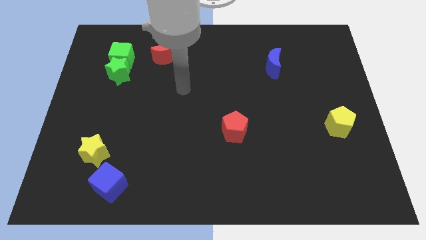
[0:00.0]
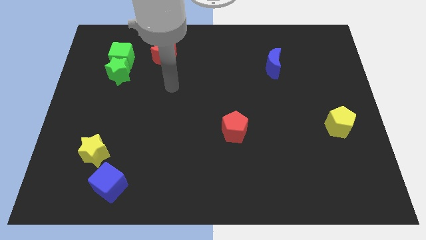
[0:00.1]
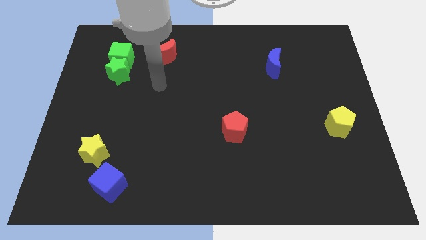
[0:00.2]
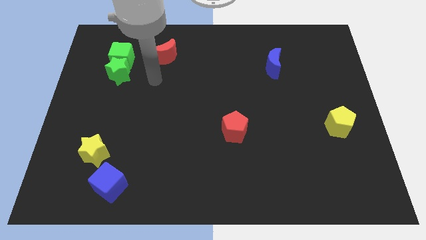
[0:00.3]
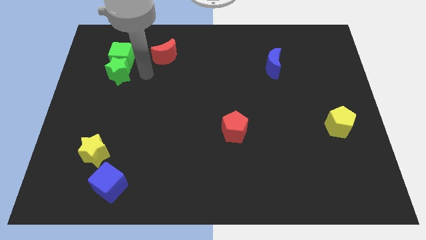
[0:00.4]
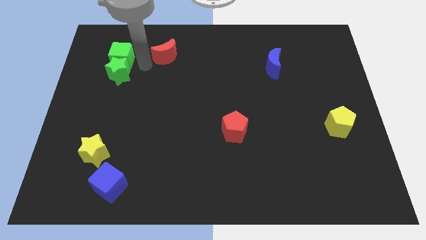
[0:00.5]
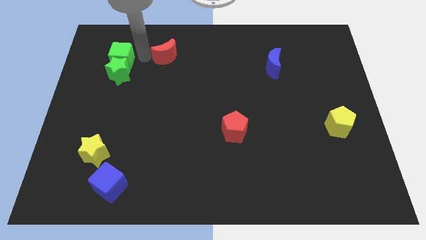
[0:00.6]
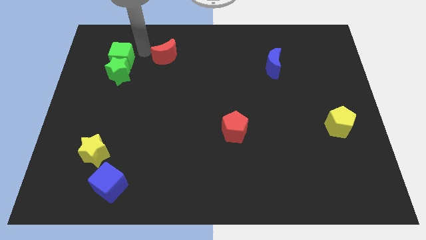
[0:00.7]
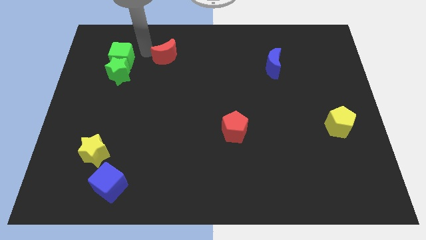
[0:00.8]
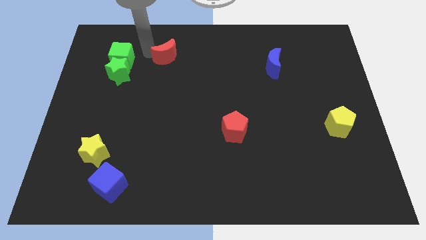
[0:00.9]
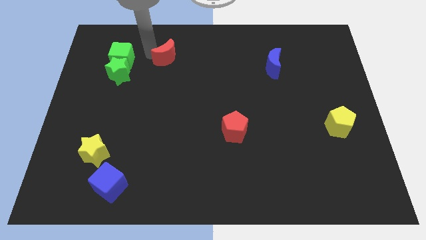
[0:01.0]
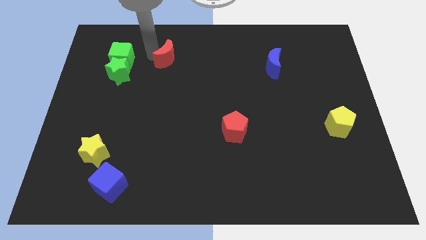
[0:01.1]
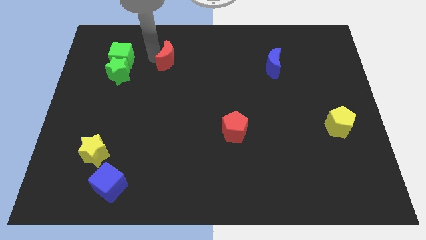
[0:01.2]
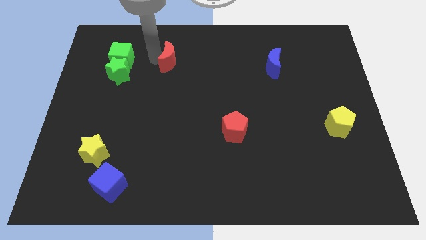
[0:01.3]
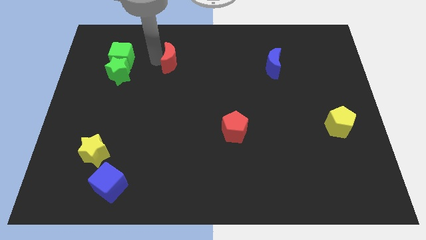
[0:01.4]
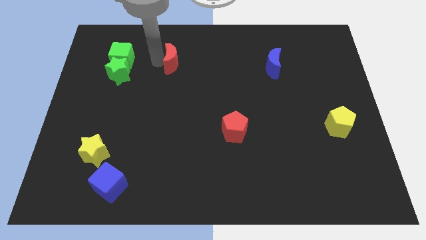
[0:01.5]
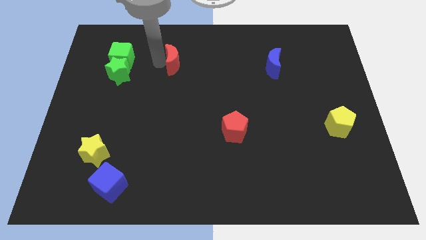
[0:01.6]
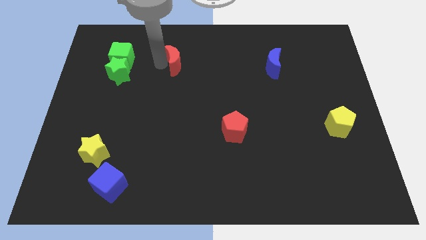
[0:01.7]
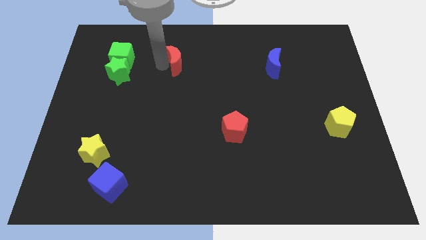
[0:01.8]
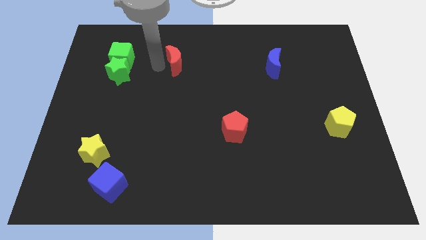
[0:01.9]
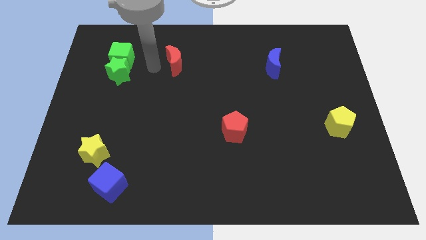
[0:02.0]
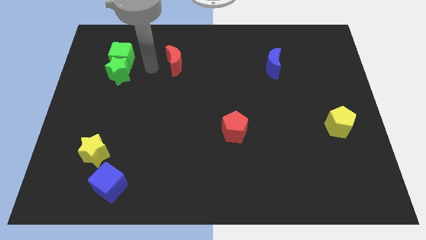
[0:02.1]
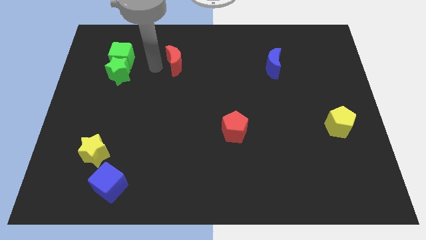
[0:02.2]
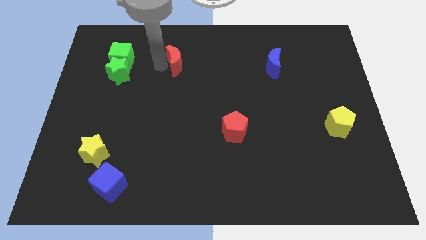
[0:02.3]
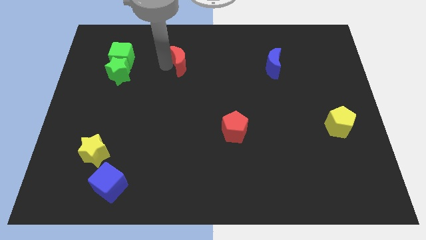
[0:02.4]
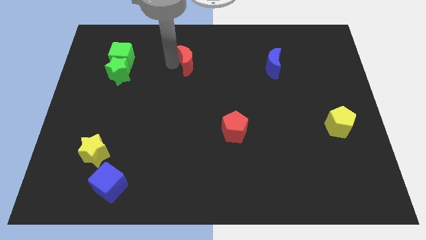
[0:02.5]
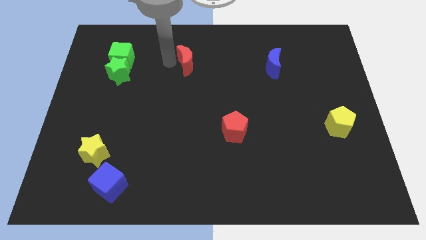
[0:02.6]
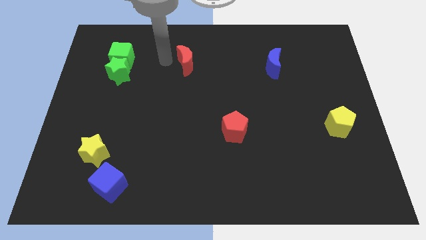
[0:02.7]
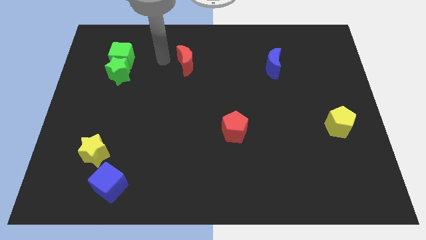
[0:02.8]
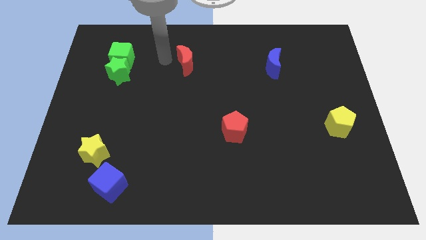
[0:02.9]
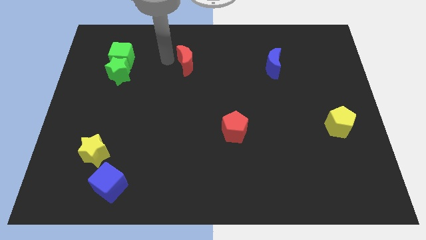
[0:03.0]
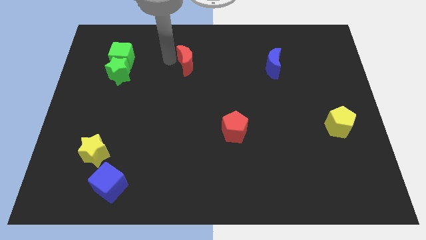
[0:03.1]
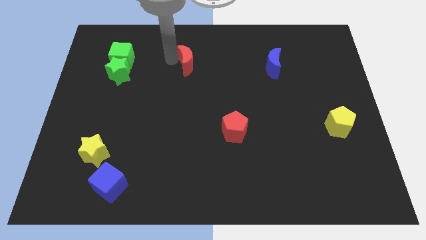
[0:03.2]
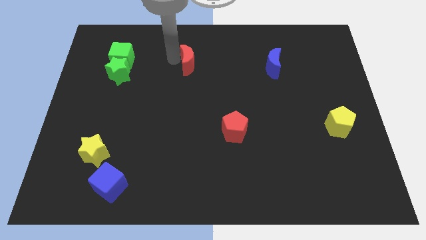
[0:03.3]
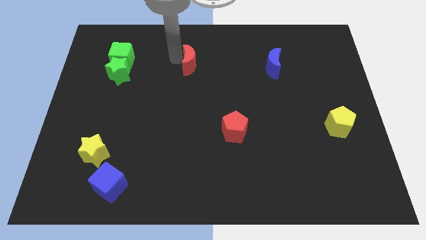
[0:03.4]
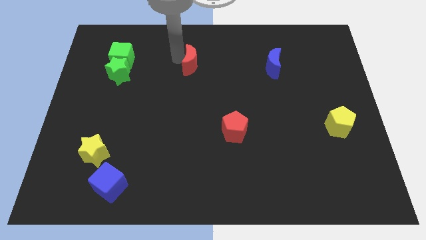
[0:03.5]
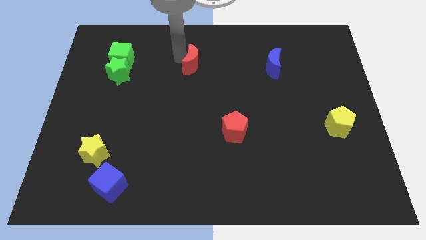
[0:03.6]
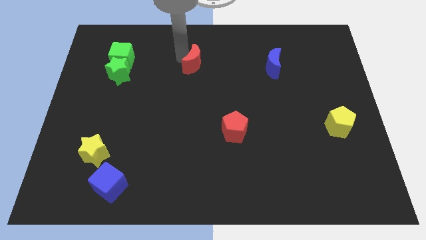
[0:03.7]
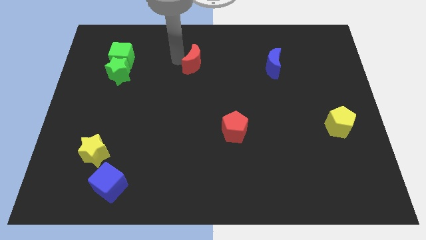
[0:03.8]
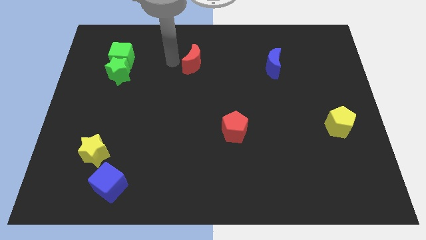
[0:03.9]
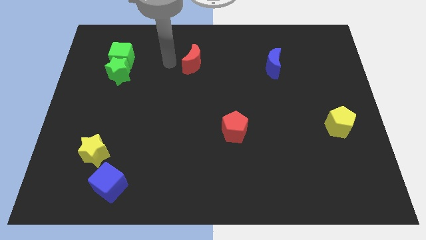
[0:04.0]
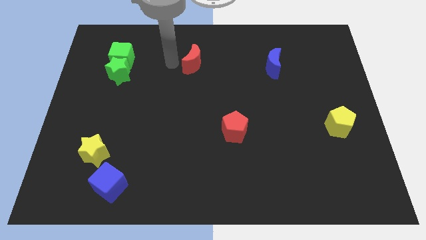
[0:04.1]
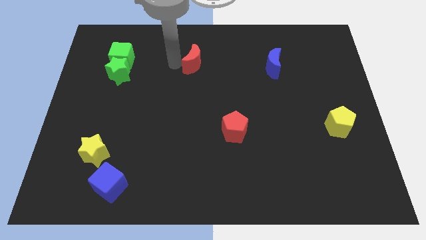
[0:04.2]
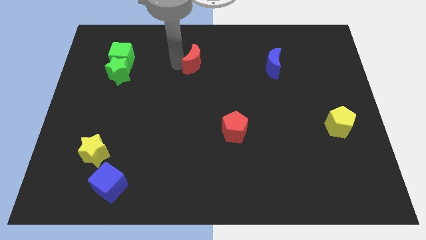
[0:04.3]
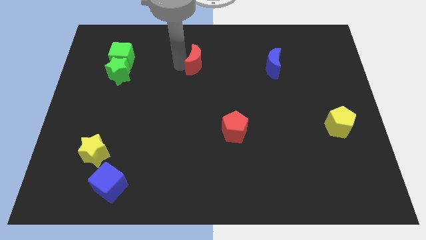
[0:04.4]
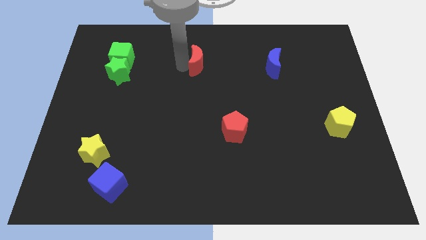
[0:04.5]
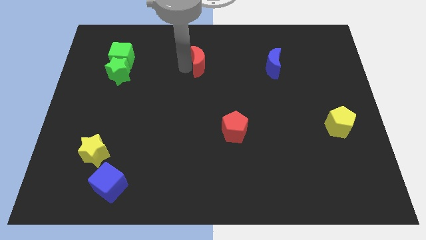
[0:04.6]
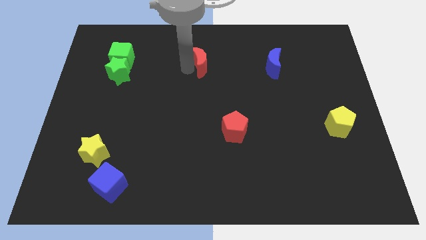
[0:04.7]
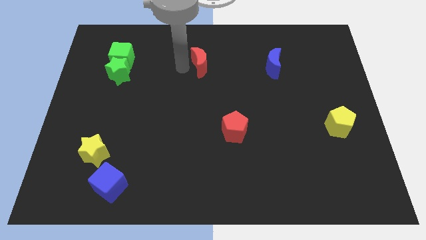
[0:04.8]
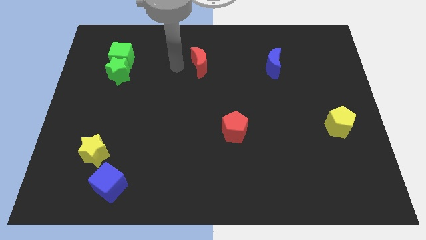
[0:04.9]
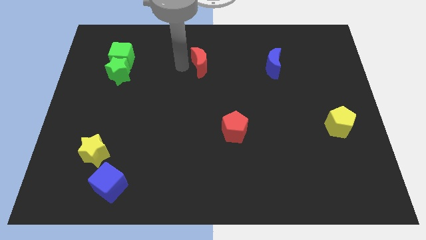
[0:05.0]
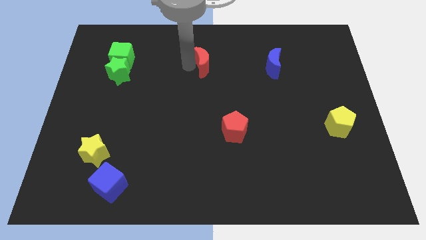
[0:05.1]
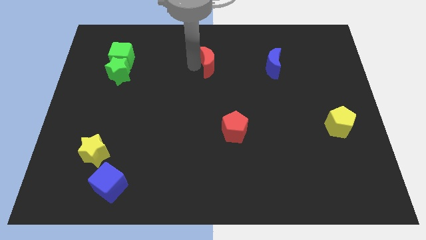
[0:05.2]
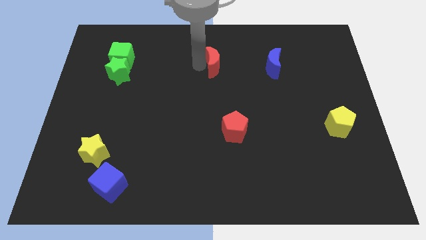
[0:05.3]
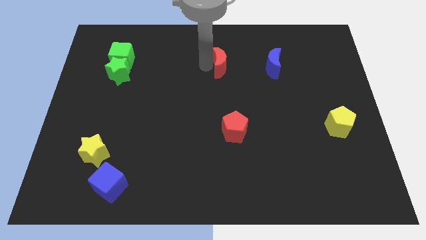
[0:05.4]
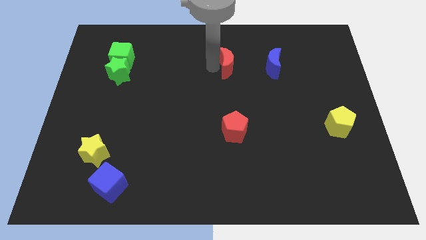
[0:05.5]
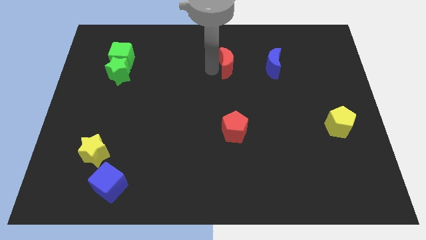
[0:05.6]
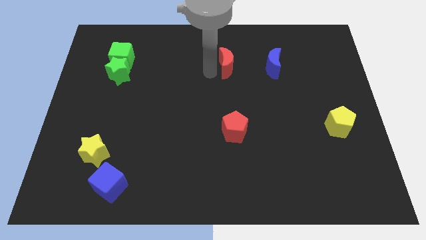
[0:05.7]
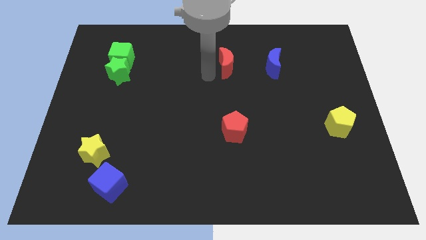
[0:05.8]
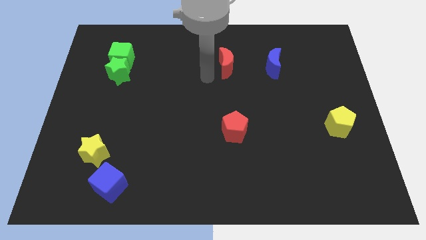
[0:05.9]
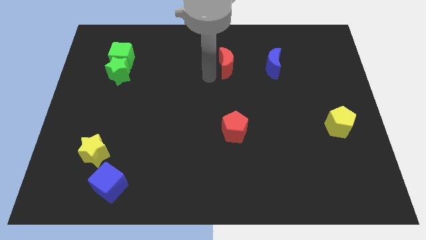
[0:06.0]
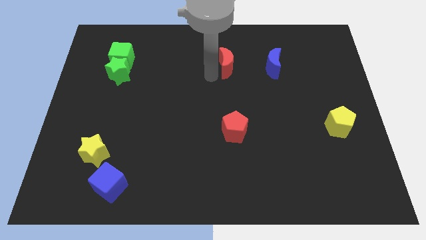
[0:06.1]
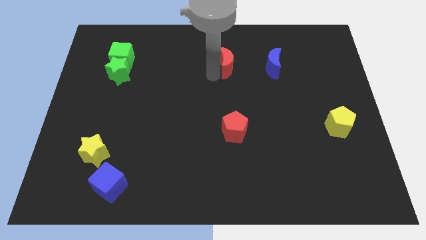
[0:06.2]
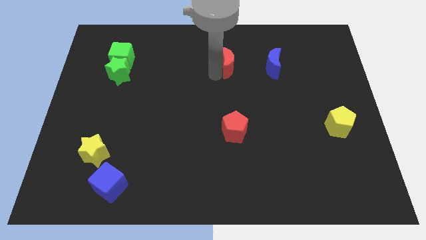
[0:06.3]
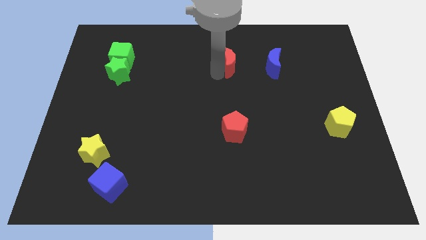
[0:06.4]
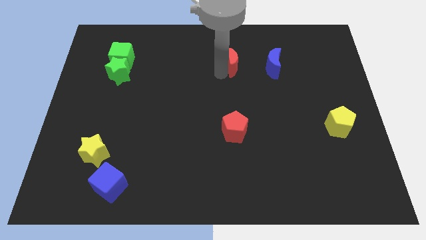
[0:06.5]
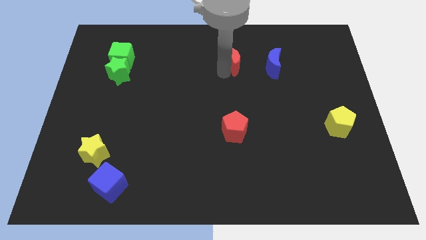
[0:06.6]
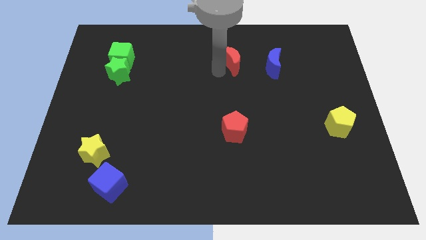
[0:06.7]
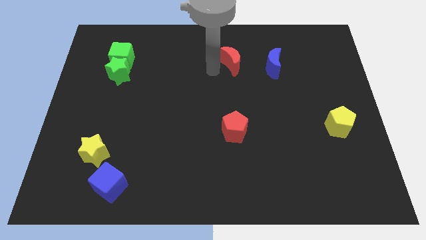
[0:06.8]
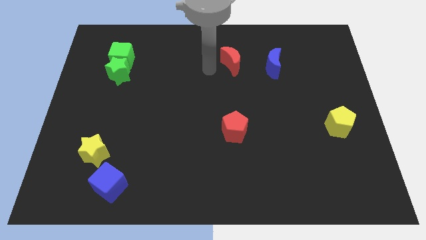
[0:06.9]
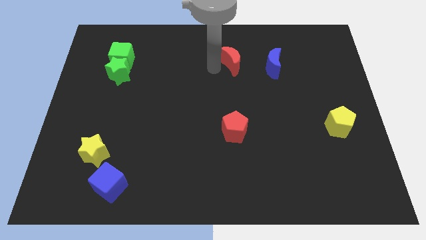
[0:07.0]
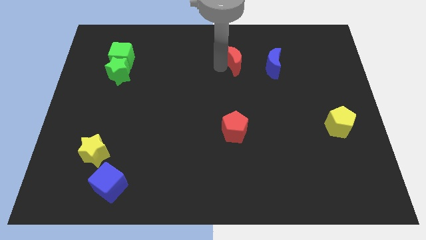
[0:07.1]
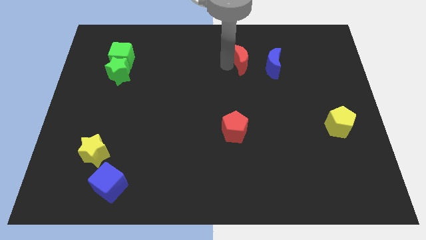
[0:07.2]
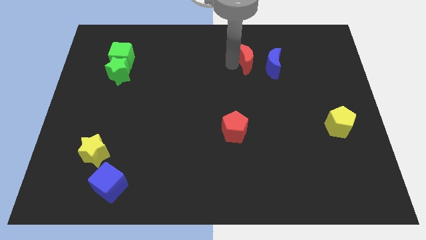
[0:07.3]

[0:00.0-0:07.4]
slide the red moon to the right

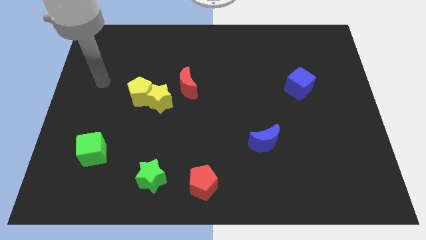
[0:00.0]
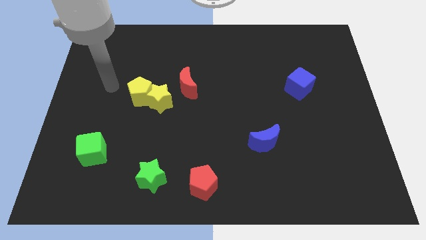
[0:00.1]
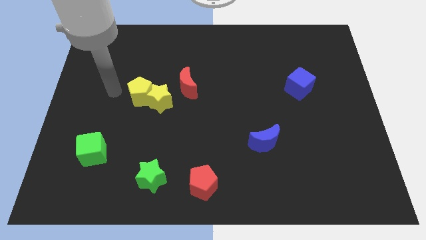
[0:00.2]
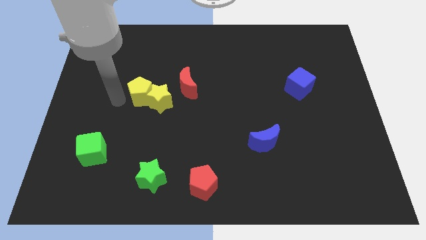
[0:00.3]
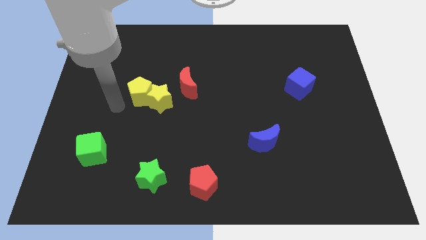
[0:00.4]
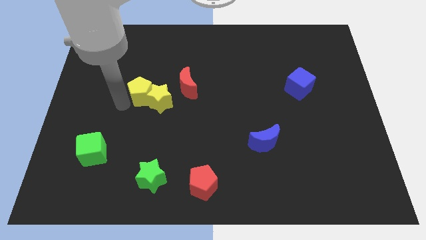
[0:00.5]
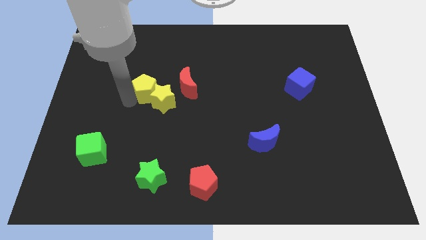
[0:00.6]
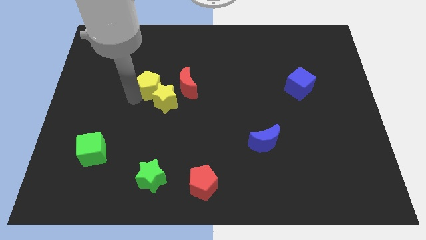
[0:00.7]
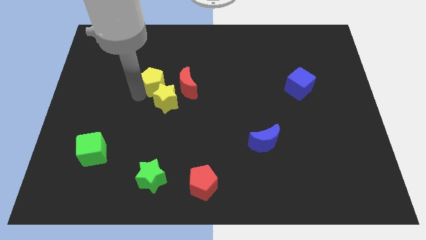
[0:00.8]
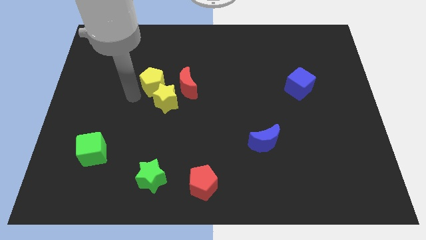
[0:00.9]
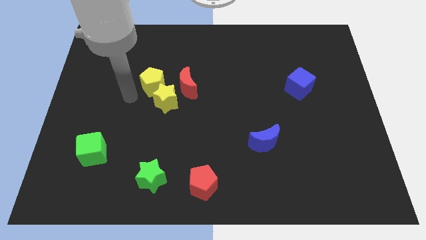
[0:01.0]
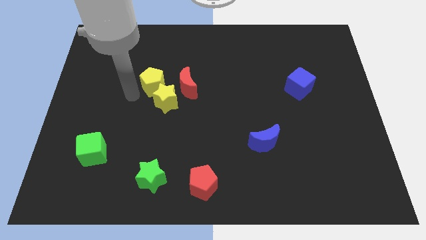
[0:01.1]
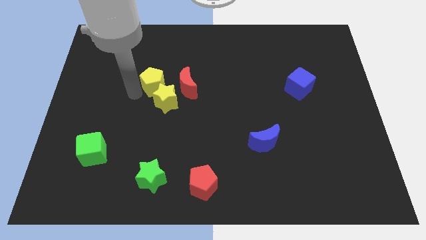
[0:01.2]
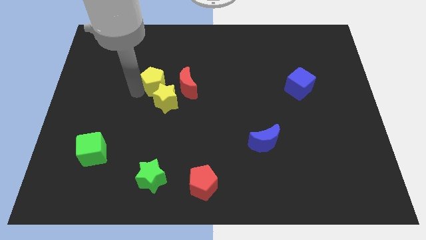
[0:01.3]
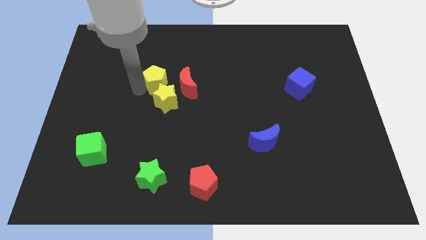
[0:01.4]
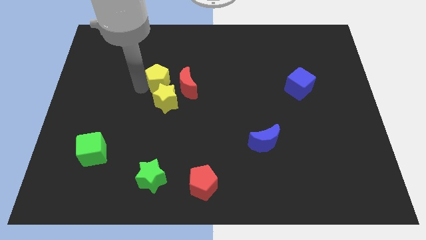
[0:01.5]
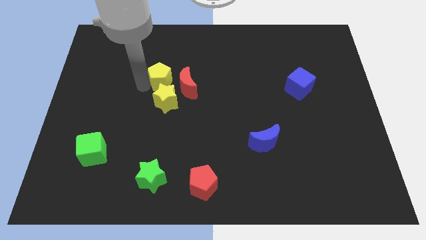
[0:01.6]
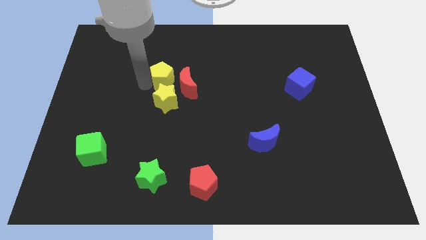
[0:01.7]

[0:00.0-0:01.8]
slightly move the yellow pentagon up and then to the right
